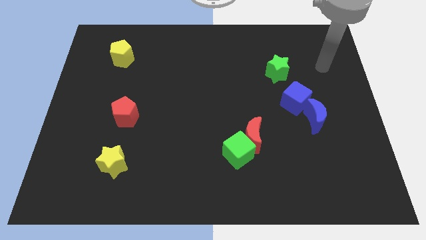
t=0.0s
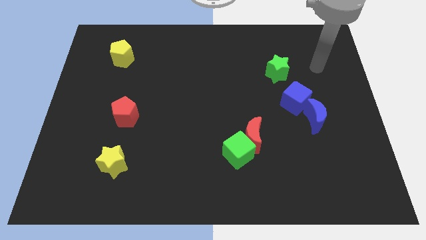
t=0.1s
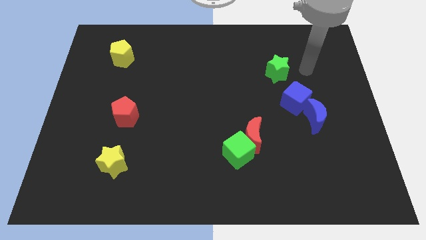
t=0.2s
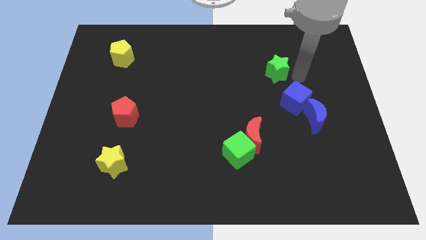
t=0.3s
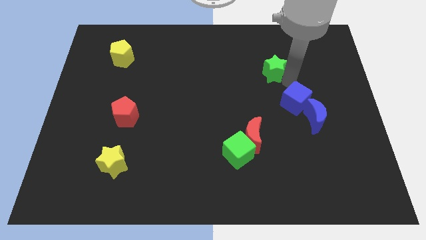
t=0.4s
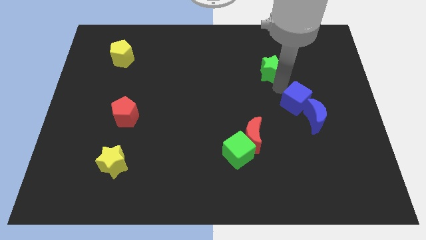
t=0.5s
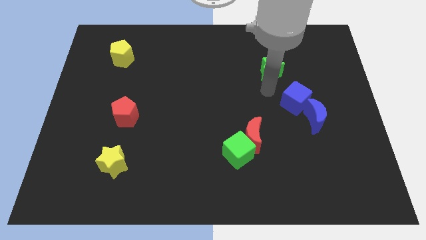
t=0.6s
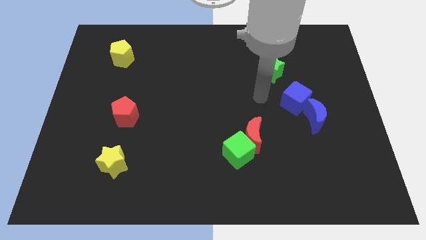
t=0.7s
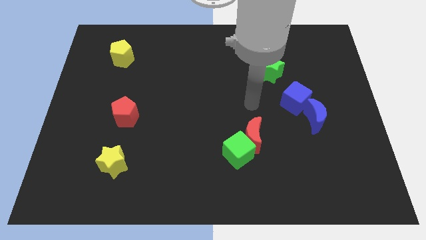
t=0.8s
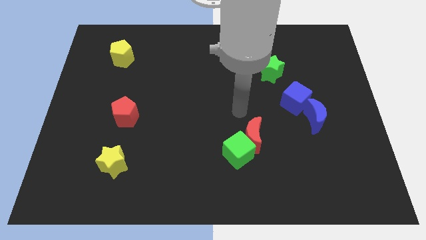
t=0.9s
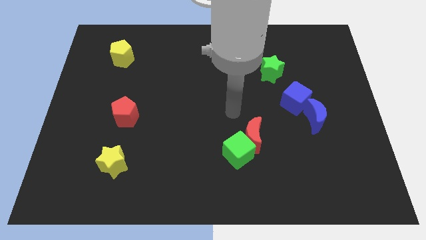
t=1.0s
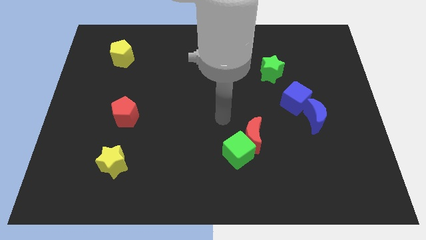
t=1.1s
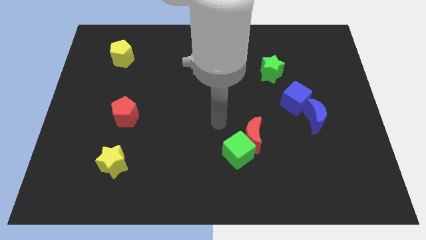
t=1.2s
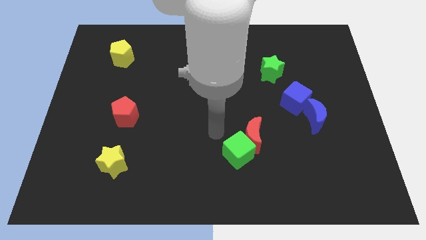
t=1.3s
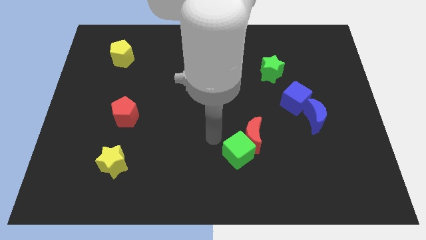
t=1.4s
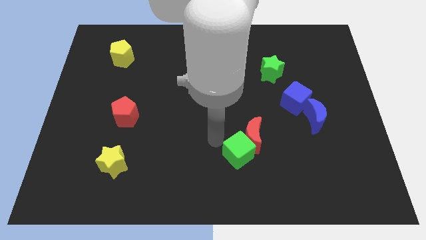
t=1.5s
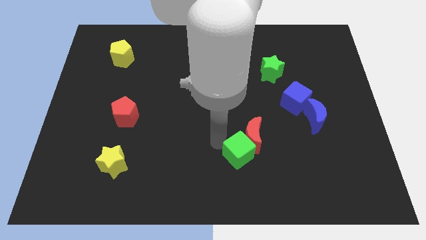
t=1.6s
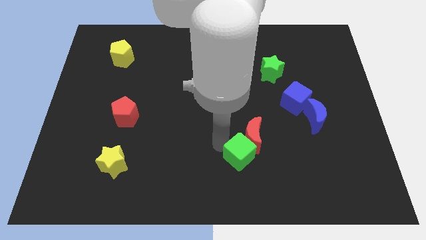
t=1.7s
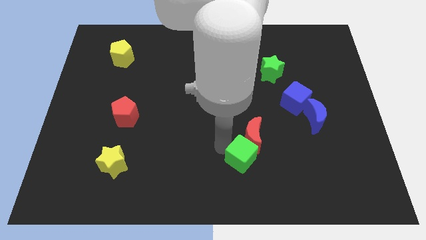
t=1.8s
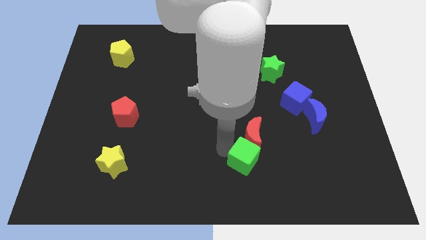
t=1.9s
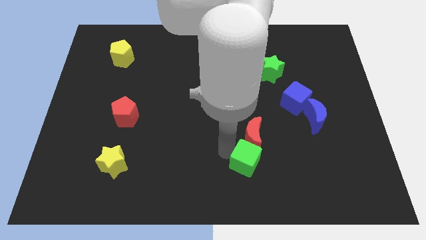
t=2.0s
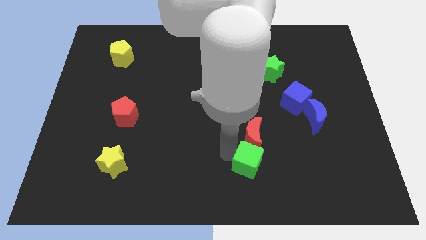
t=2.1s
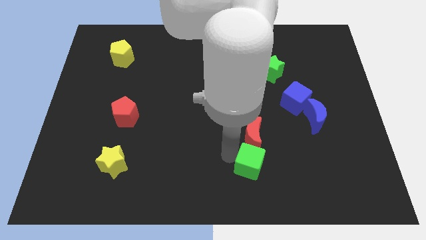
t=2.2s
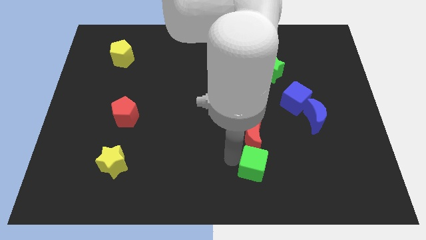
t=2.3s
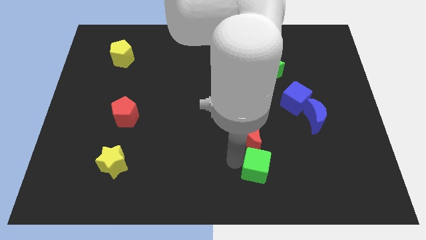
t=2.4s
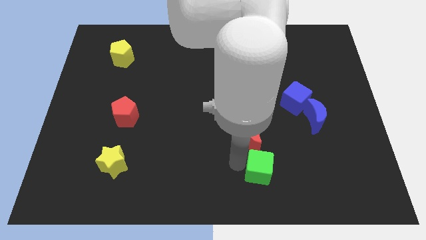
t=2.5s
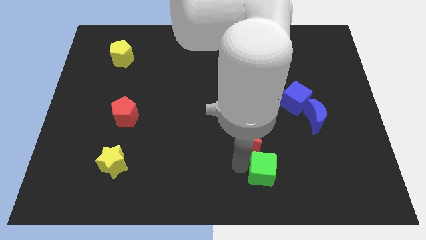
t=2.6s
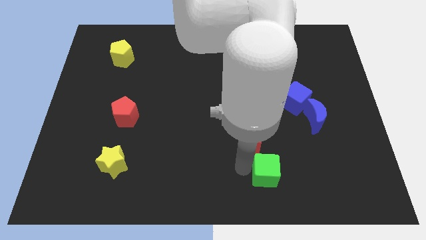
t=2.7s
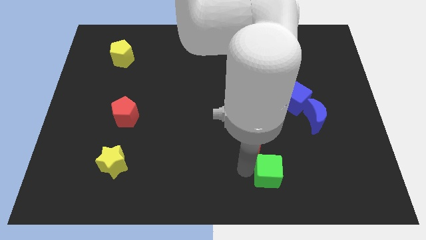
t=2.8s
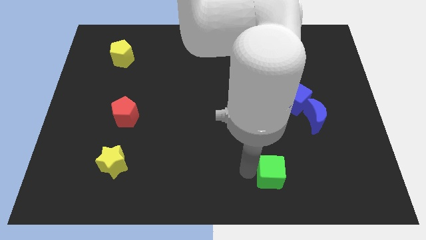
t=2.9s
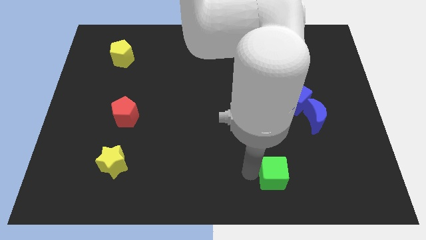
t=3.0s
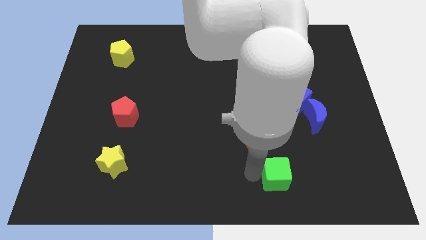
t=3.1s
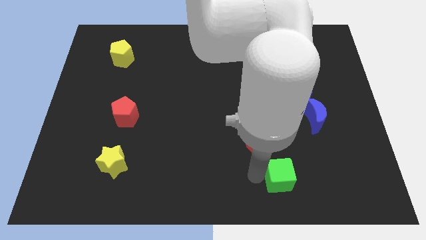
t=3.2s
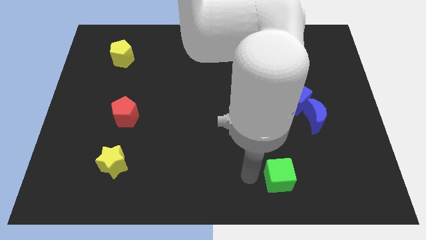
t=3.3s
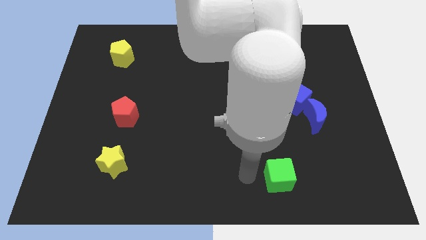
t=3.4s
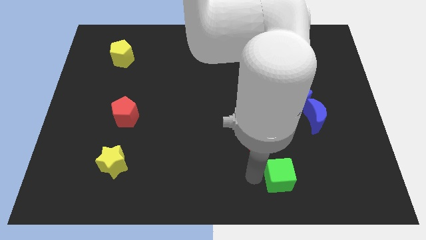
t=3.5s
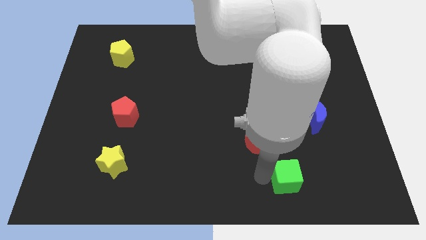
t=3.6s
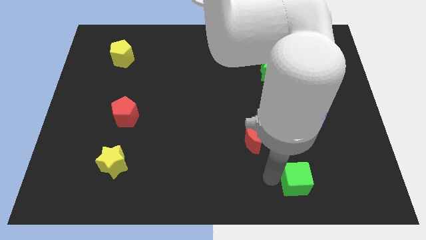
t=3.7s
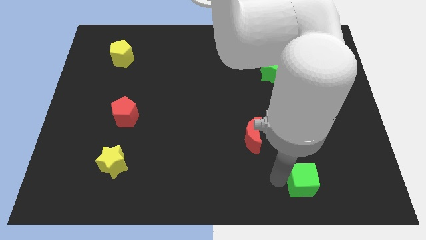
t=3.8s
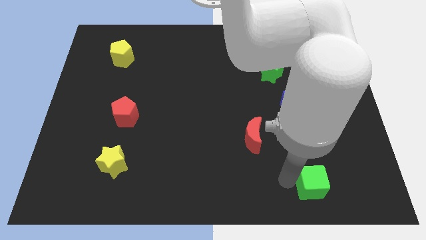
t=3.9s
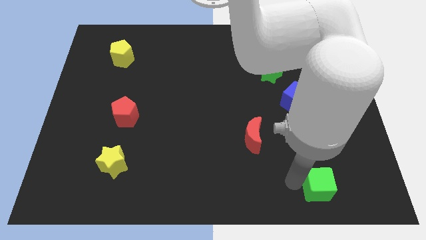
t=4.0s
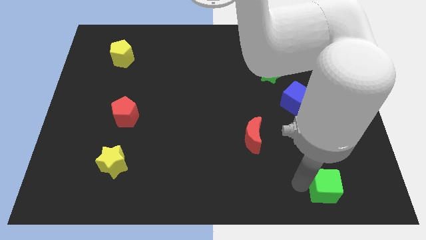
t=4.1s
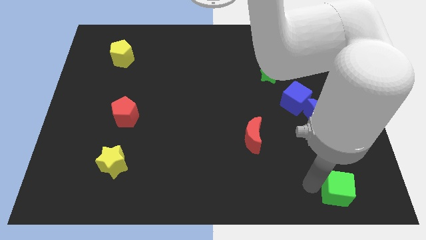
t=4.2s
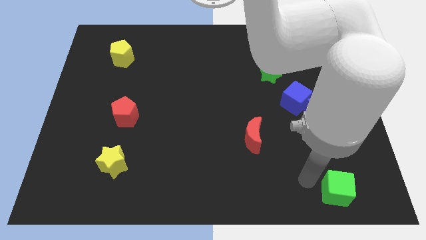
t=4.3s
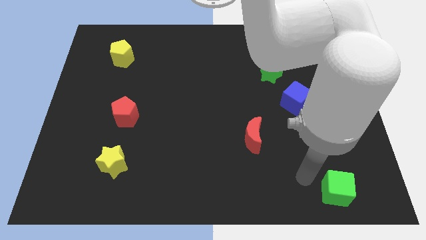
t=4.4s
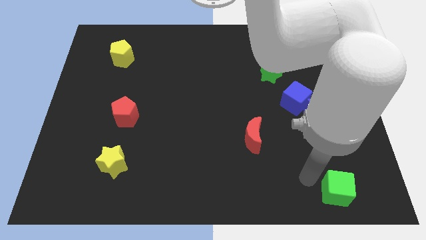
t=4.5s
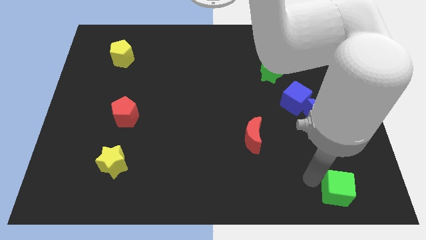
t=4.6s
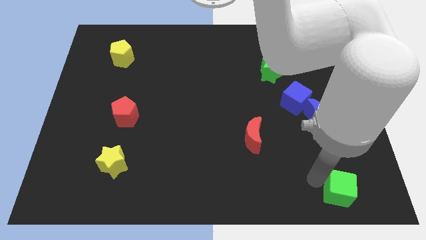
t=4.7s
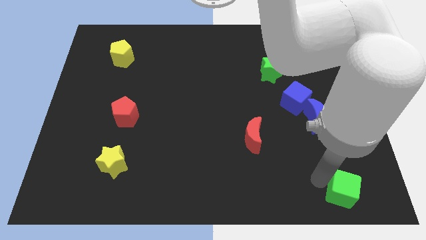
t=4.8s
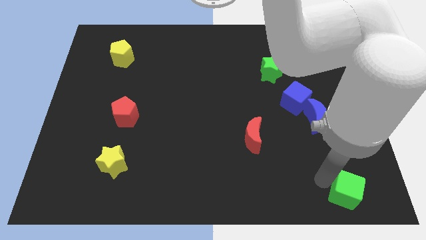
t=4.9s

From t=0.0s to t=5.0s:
push the green cube to the bottom right

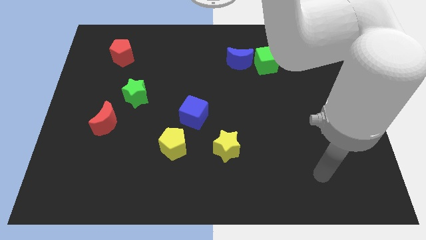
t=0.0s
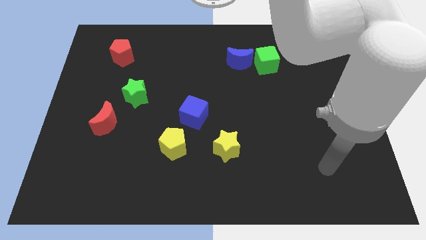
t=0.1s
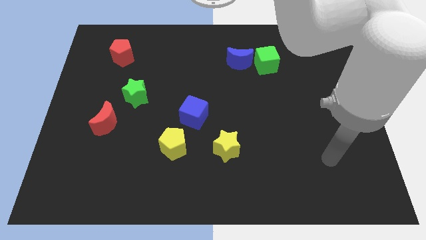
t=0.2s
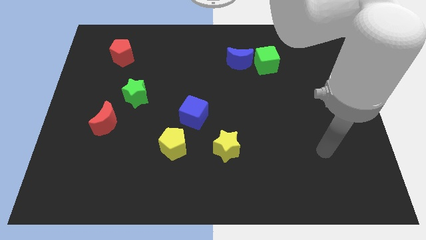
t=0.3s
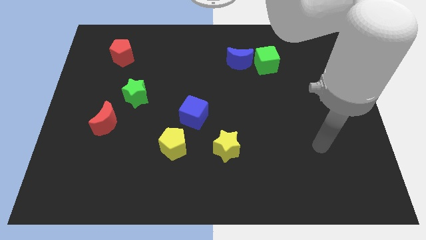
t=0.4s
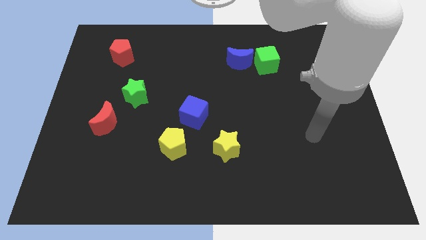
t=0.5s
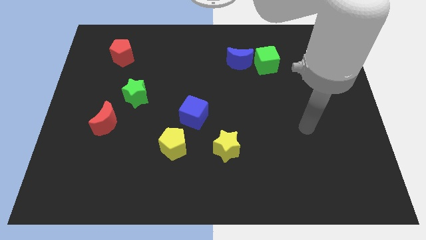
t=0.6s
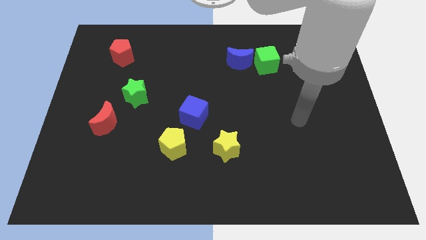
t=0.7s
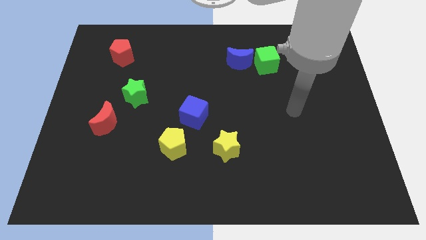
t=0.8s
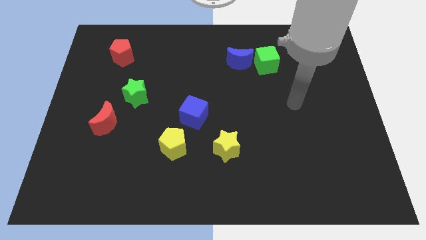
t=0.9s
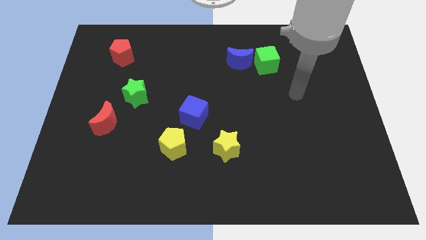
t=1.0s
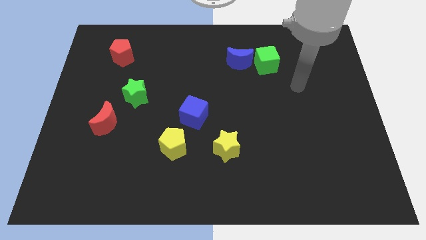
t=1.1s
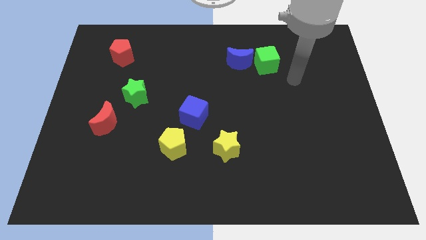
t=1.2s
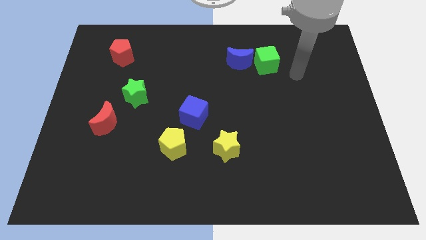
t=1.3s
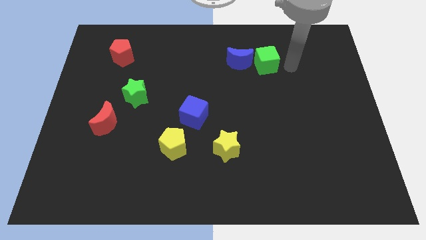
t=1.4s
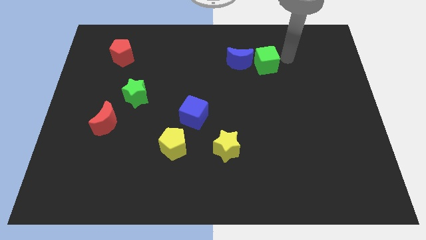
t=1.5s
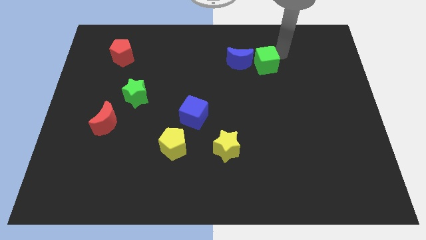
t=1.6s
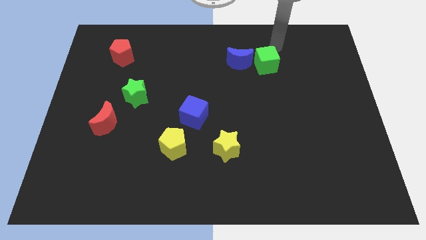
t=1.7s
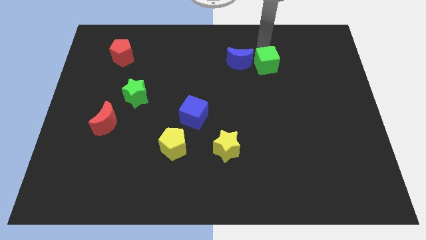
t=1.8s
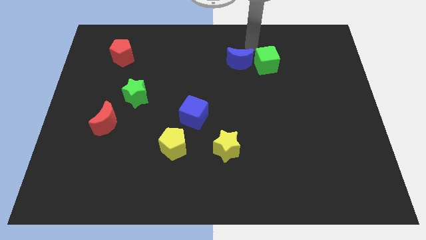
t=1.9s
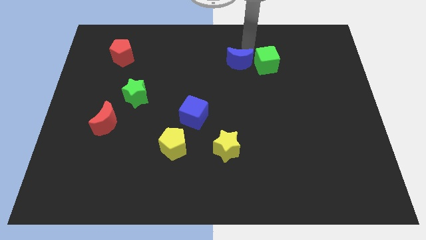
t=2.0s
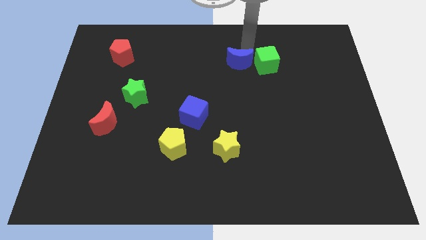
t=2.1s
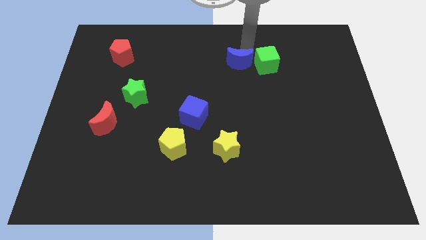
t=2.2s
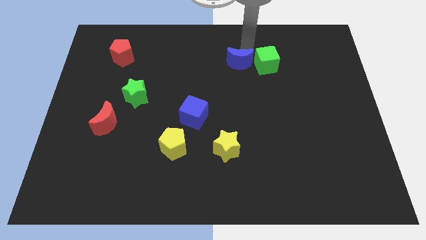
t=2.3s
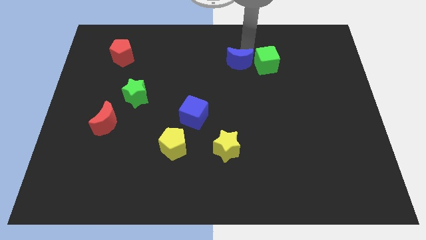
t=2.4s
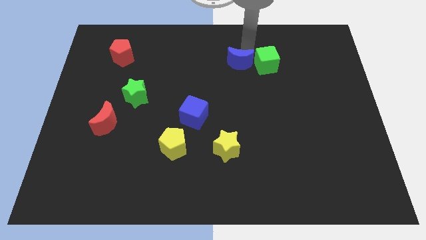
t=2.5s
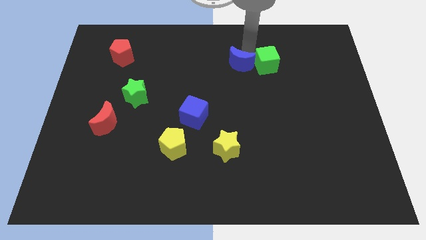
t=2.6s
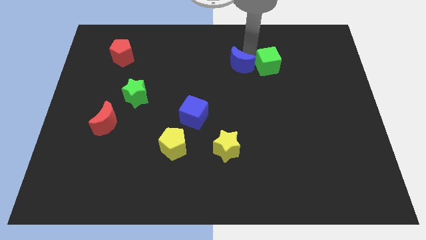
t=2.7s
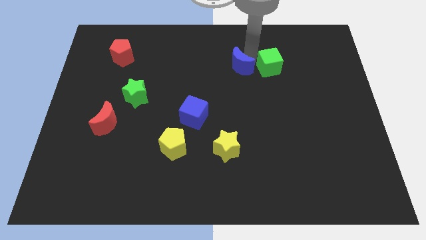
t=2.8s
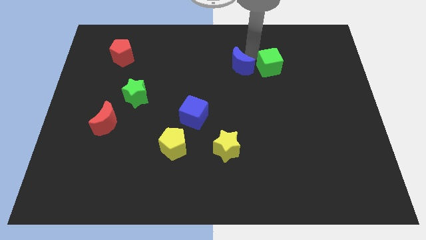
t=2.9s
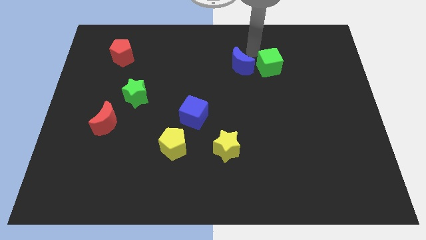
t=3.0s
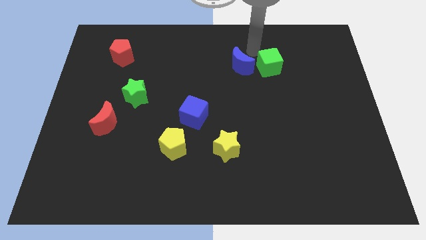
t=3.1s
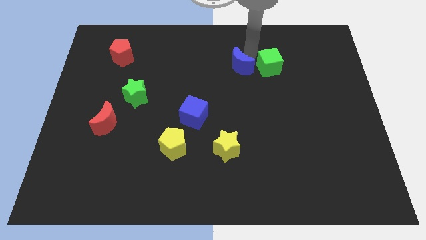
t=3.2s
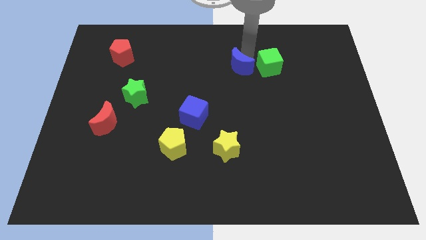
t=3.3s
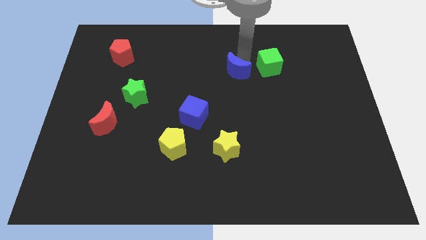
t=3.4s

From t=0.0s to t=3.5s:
put the blue moon to the center of the board
